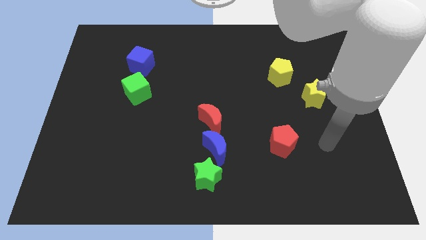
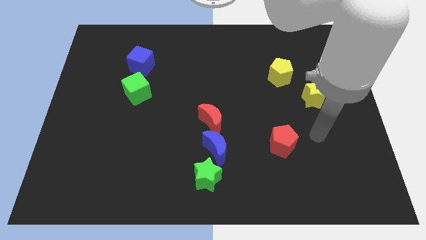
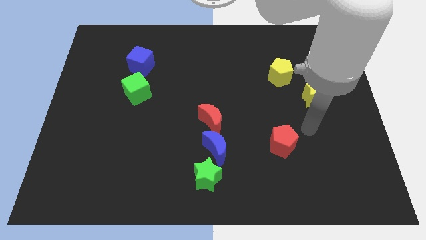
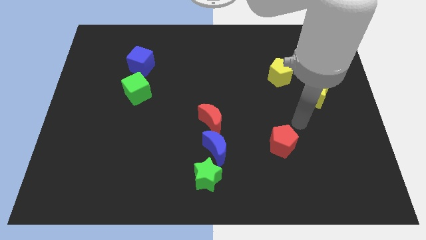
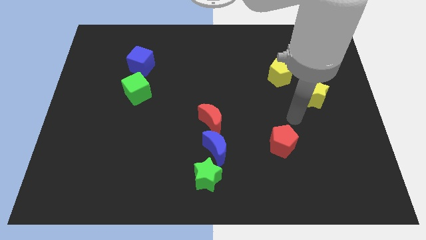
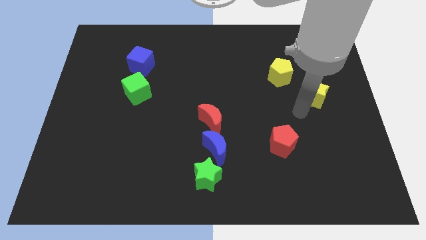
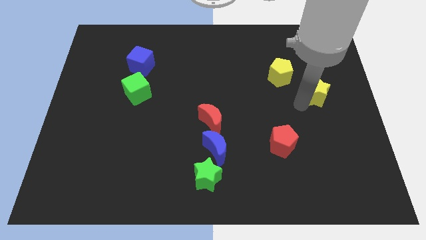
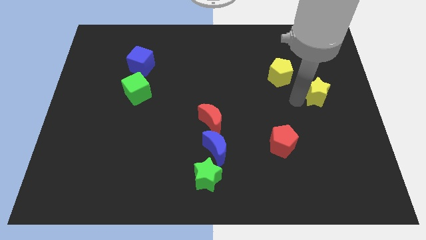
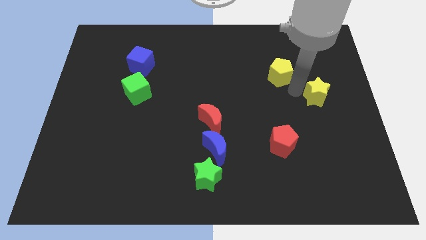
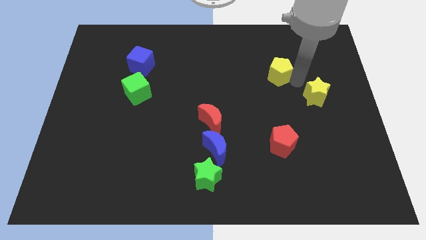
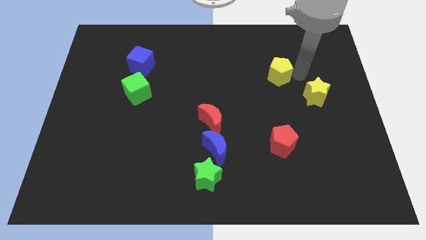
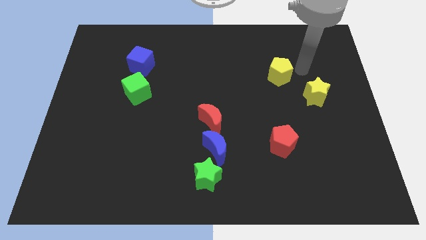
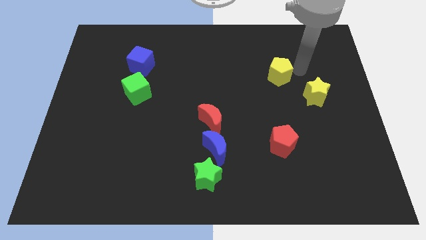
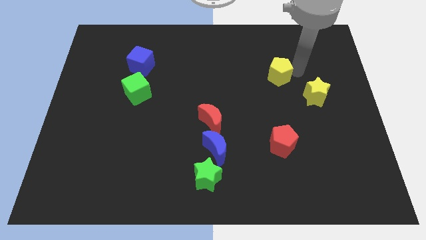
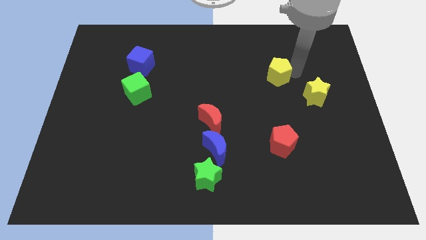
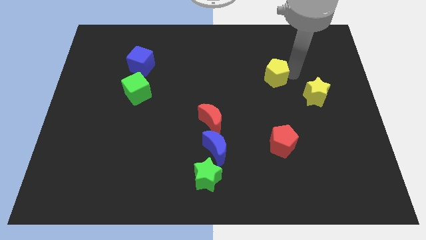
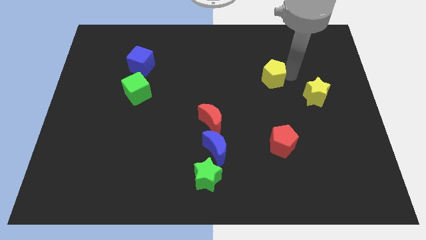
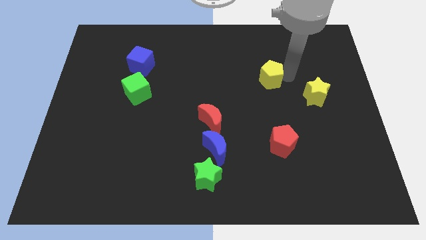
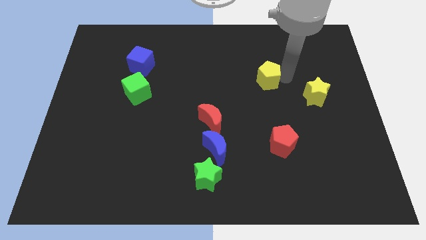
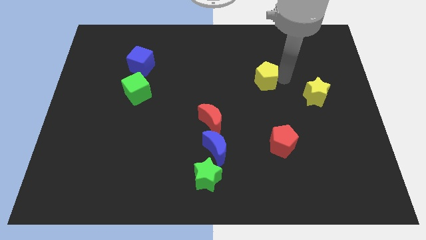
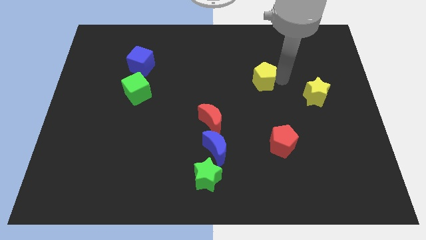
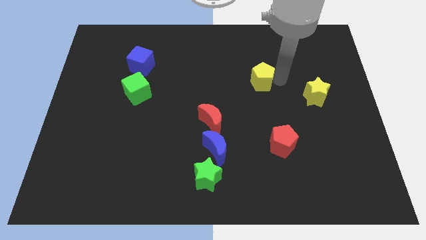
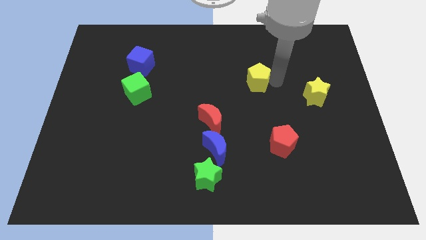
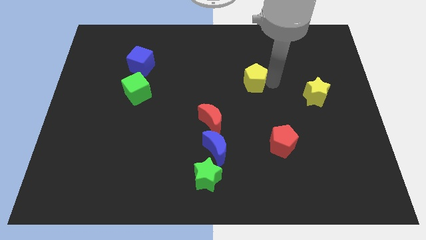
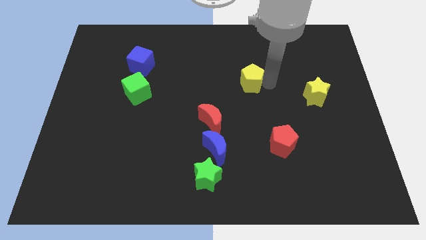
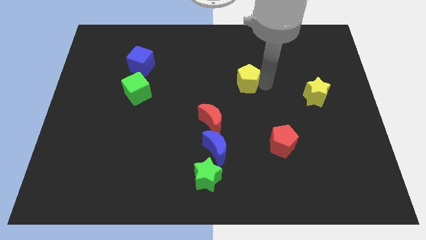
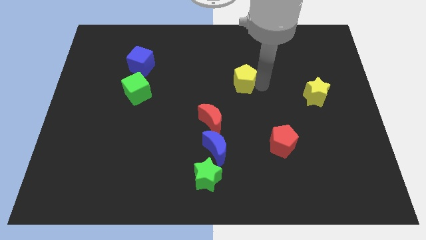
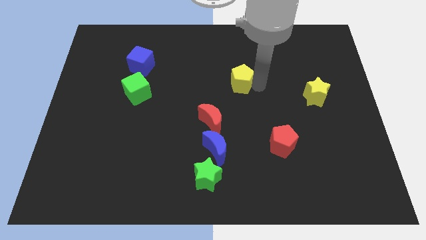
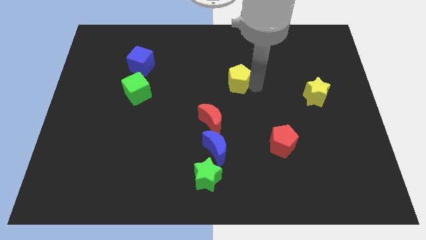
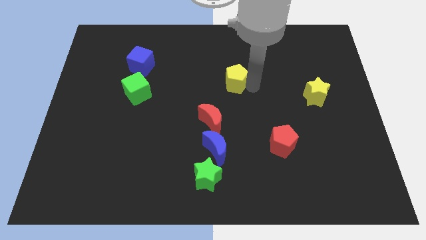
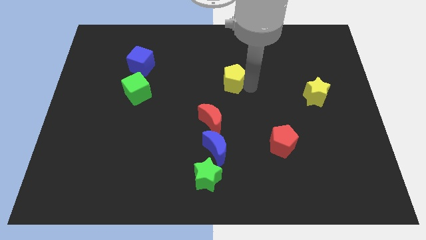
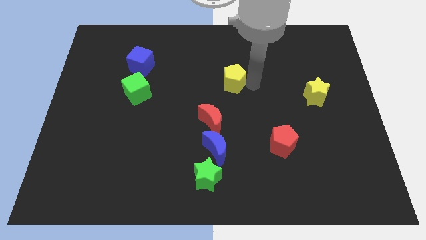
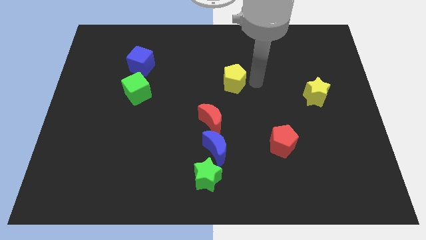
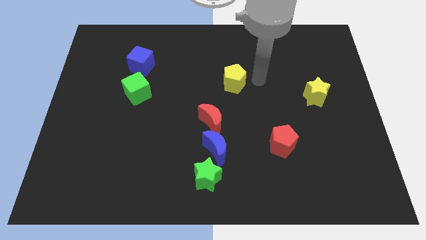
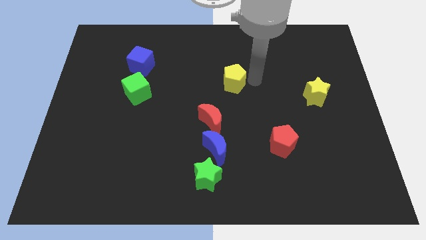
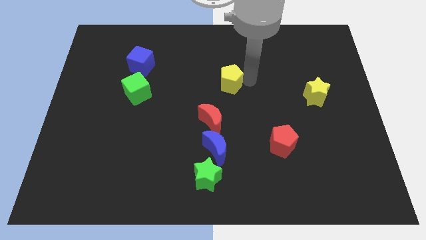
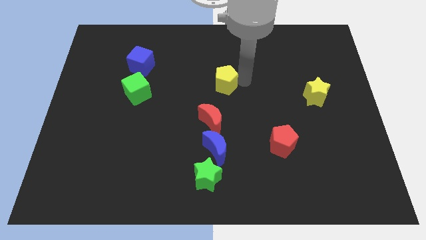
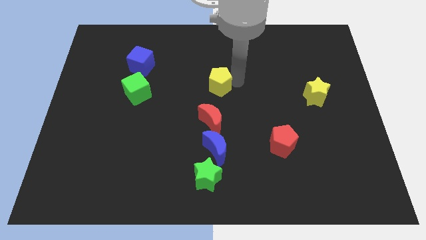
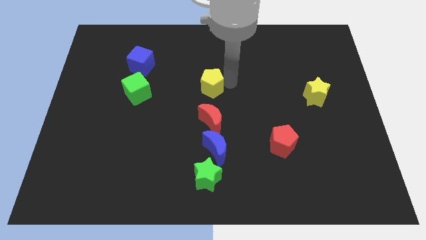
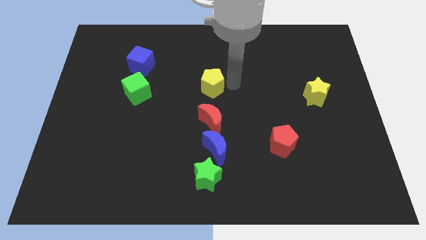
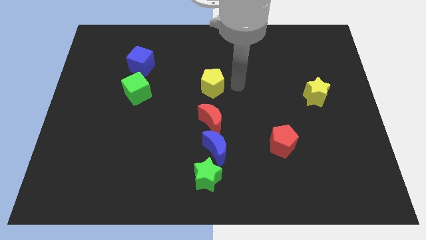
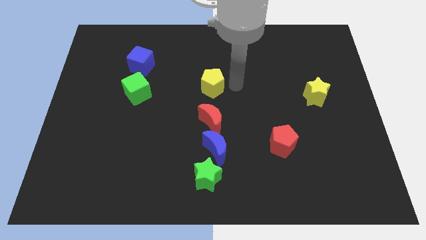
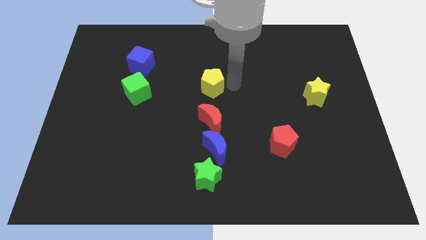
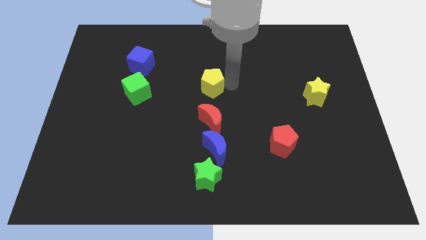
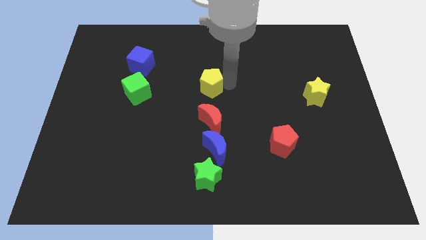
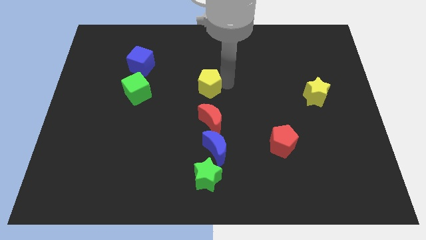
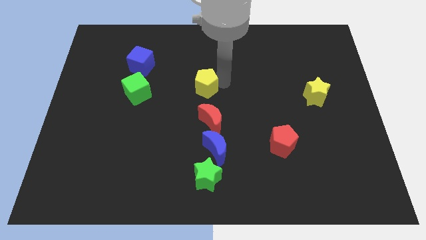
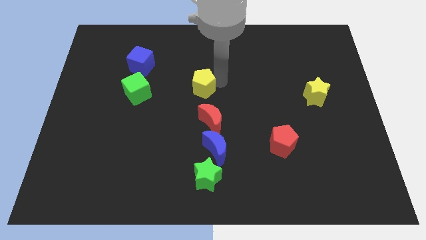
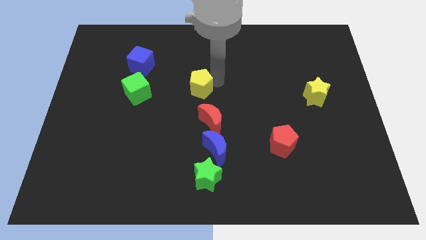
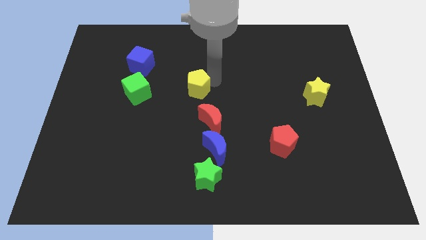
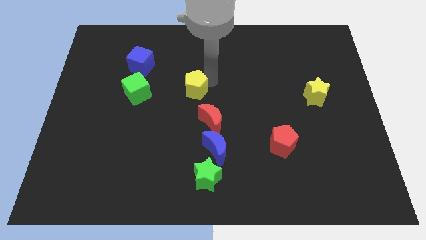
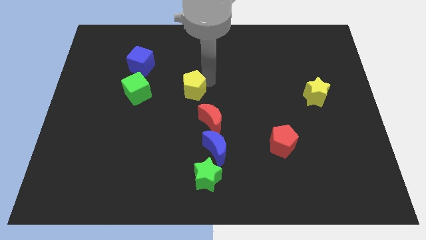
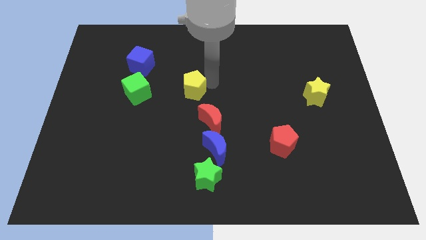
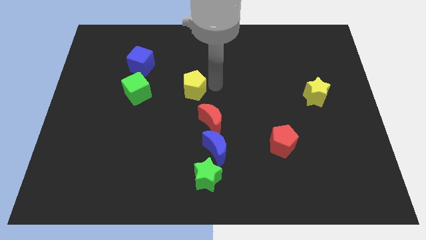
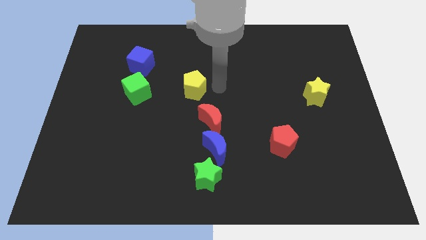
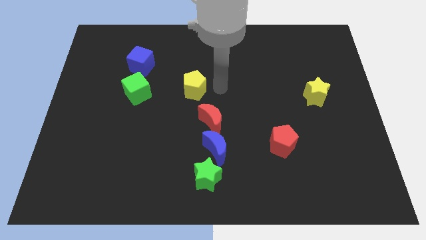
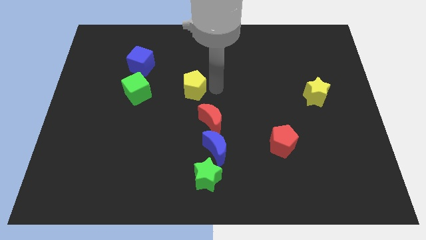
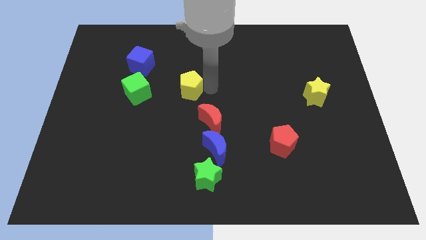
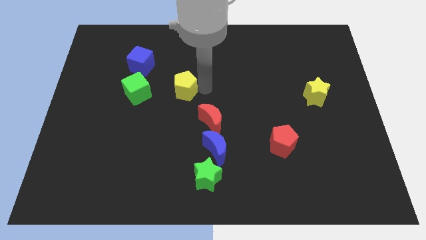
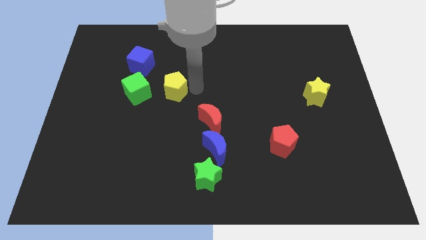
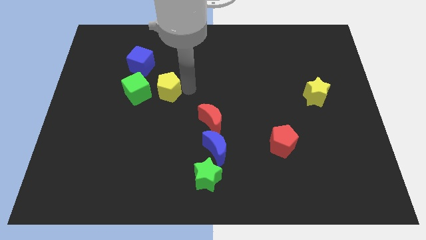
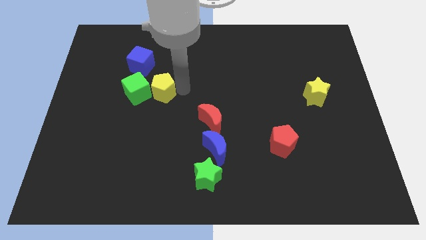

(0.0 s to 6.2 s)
move the yellow pentagon close to the green cube

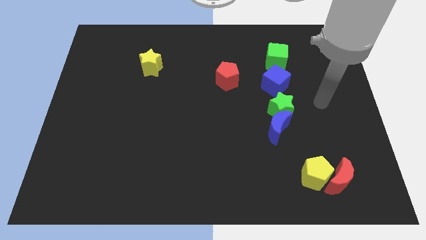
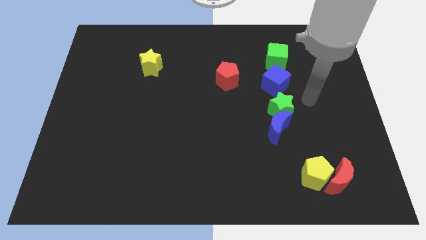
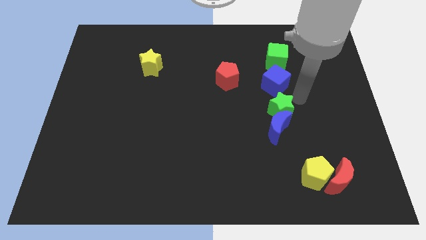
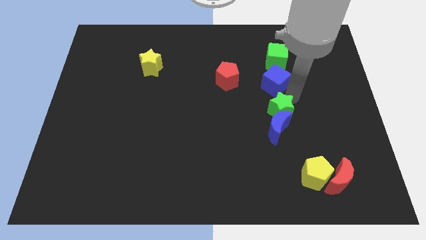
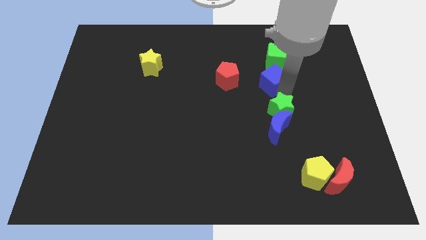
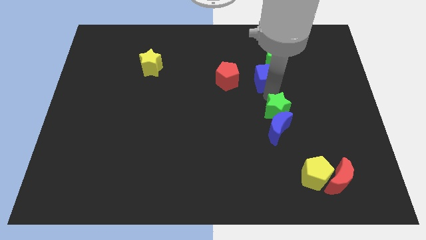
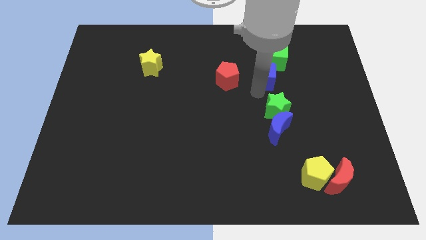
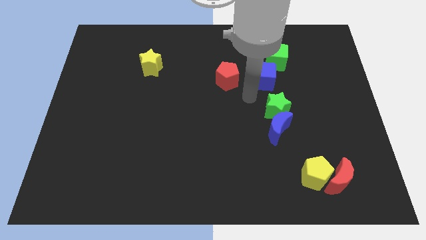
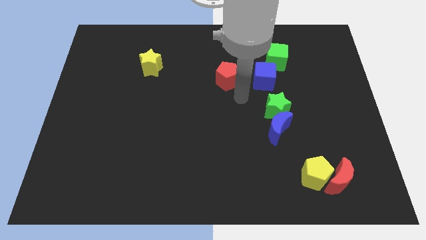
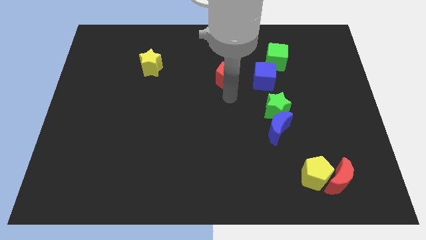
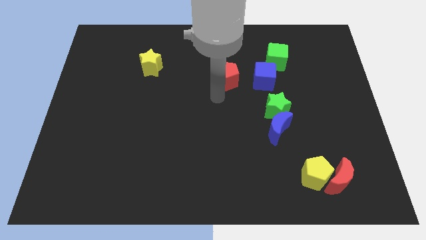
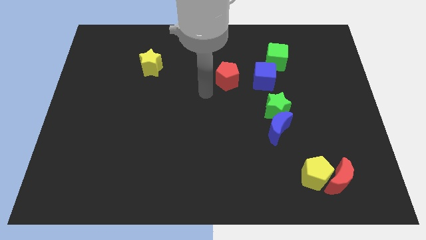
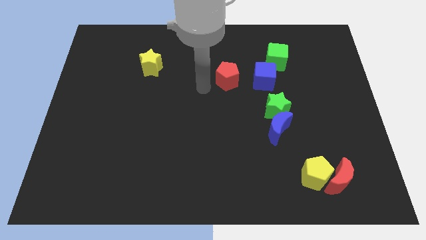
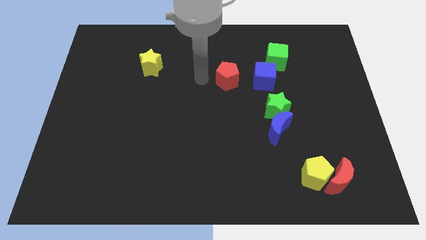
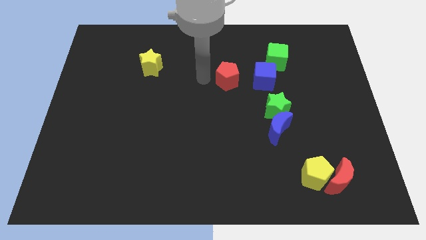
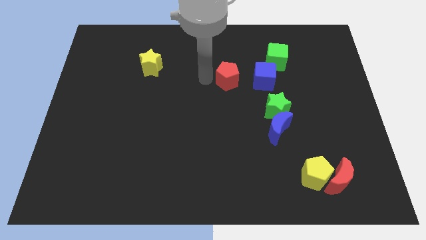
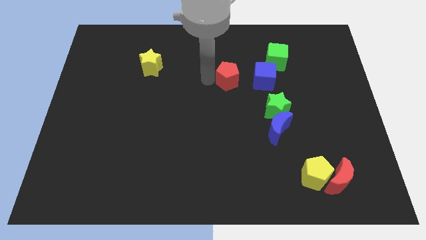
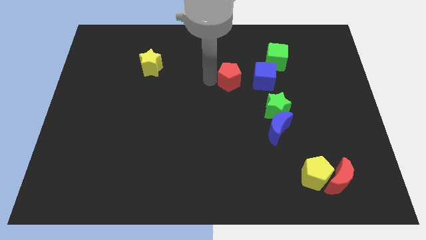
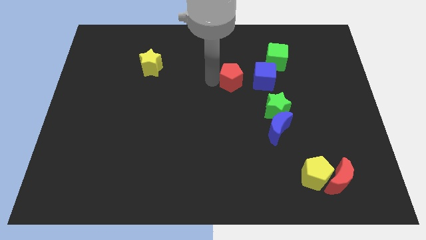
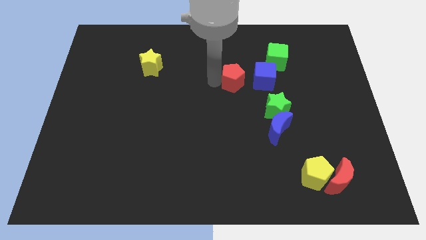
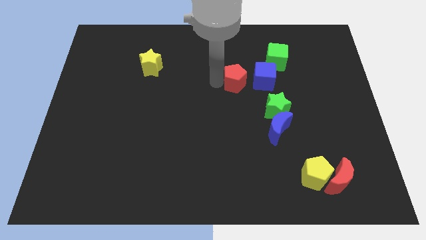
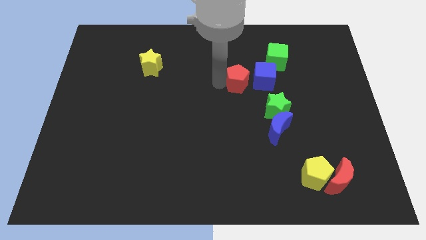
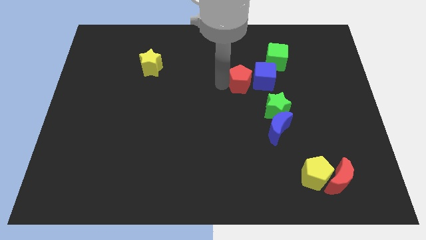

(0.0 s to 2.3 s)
move the red pentagon next to the blue cube

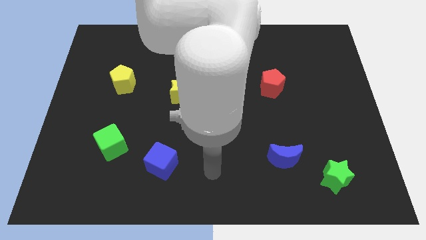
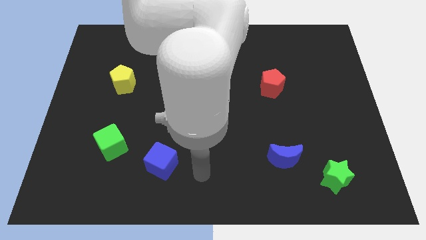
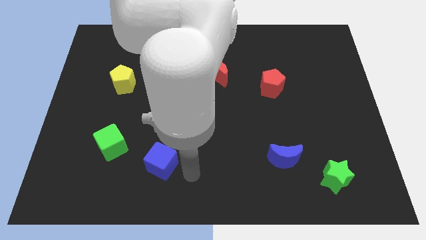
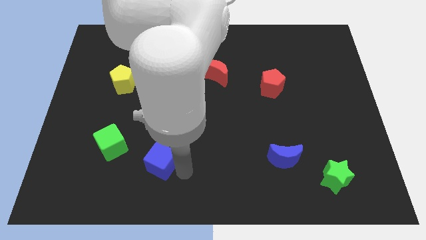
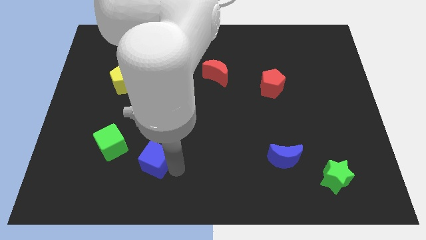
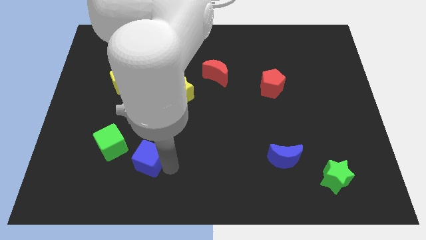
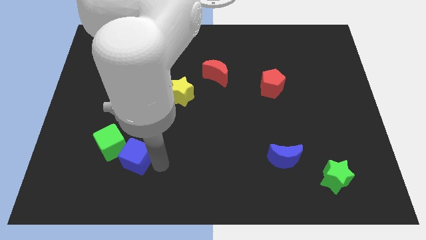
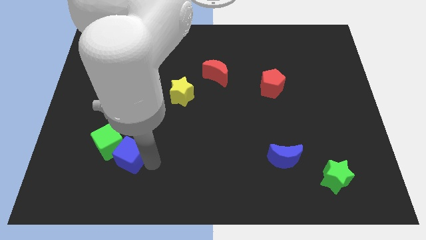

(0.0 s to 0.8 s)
move the blue cube towards the green cube
